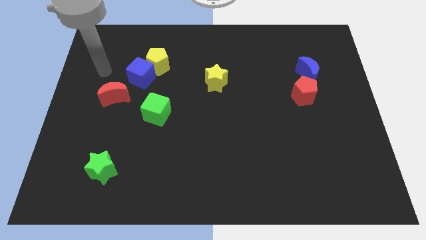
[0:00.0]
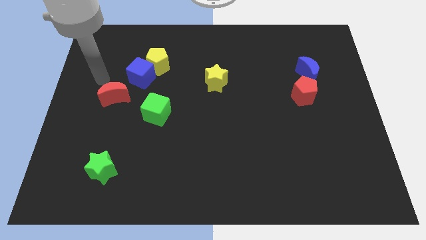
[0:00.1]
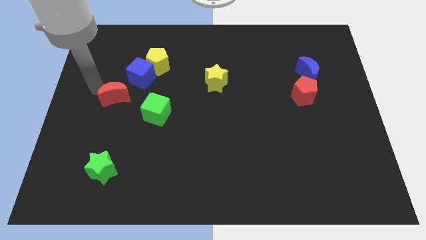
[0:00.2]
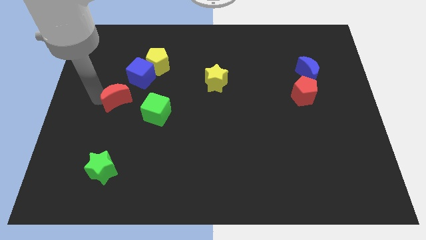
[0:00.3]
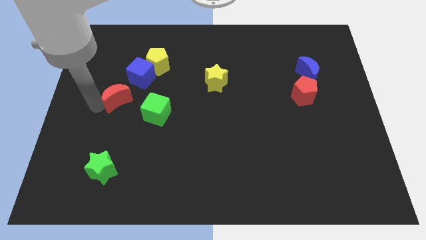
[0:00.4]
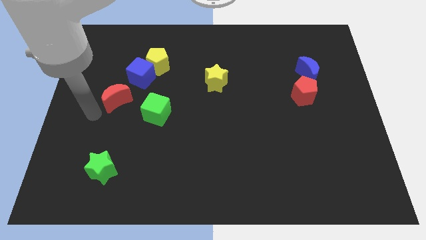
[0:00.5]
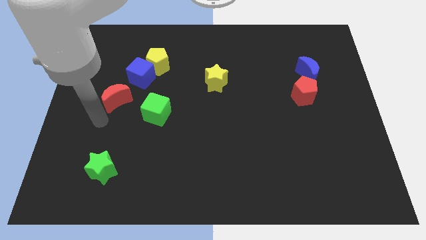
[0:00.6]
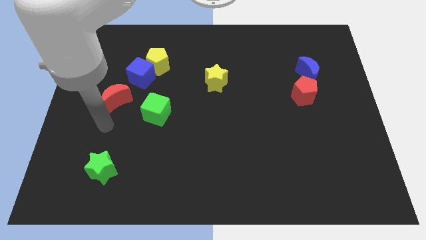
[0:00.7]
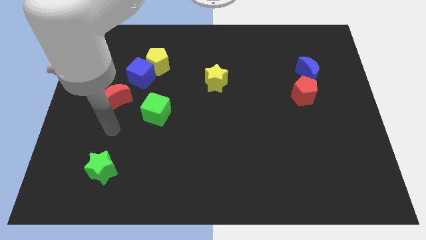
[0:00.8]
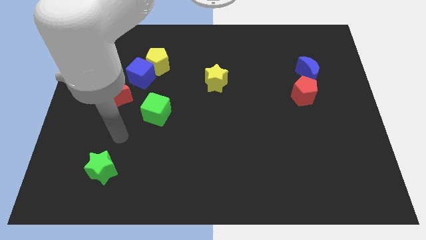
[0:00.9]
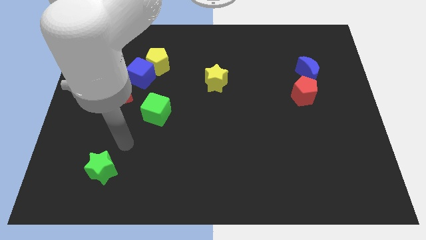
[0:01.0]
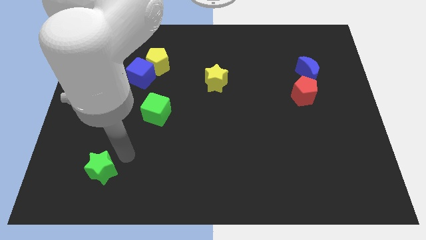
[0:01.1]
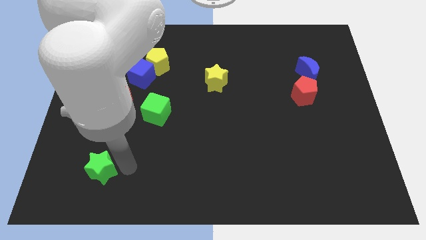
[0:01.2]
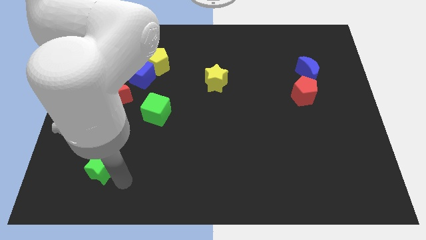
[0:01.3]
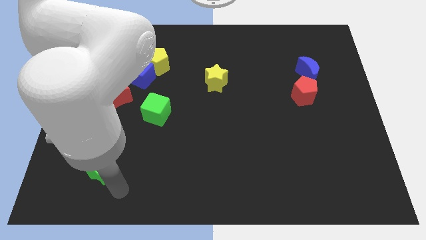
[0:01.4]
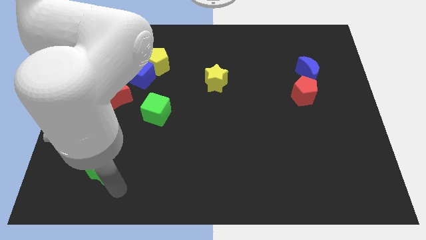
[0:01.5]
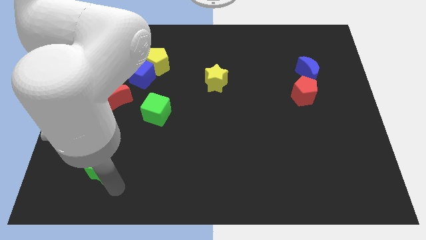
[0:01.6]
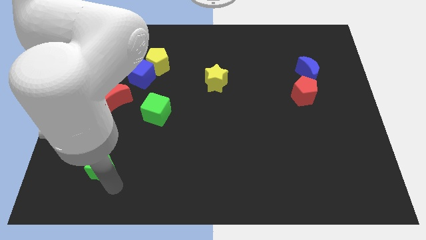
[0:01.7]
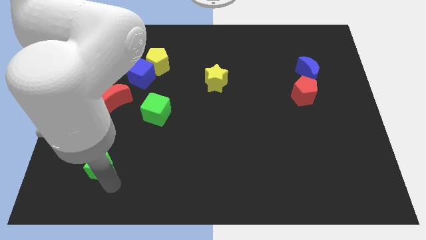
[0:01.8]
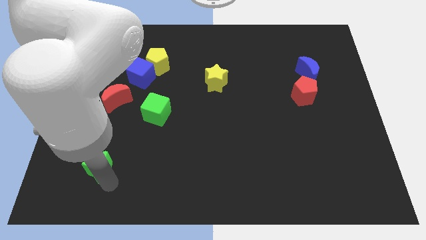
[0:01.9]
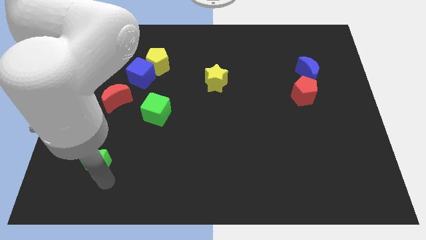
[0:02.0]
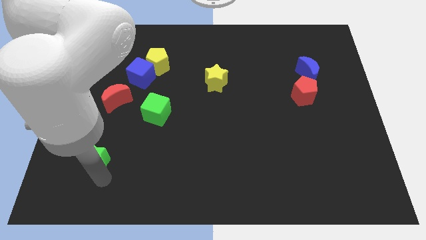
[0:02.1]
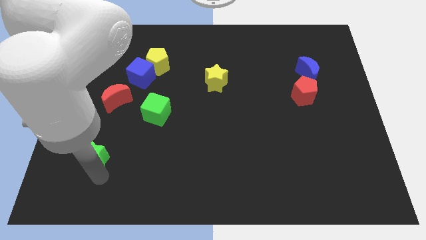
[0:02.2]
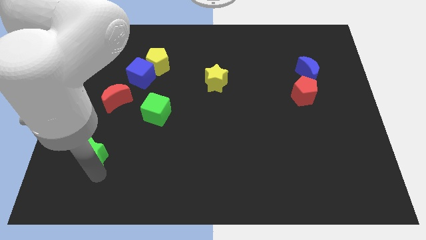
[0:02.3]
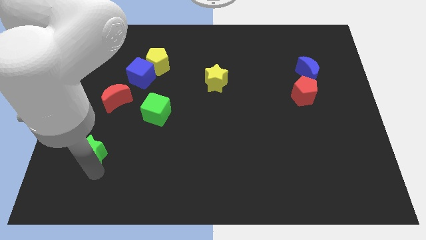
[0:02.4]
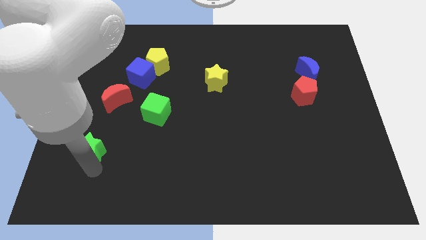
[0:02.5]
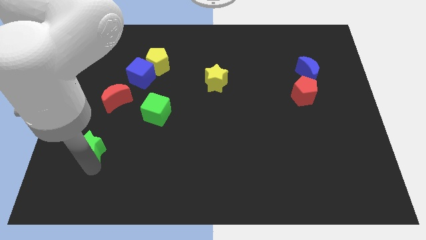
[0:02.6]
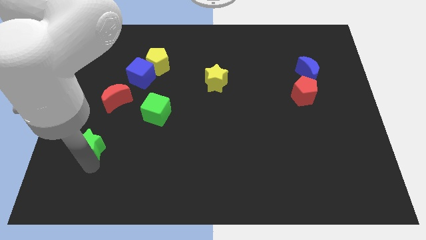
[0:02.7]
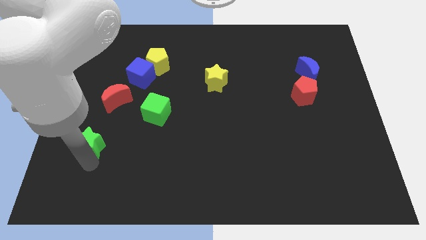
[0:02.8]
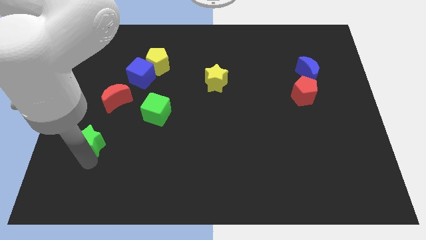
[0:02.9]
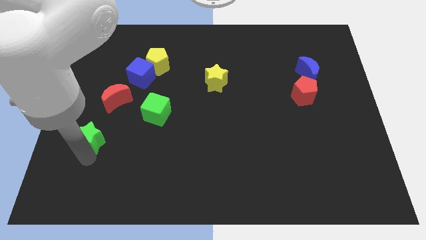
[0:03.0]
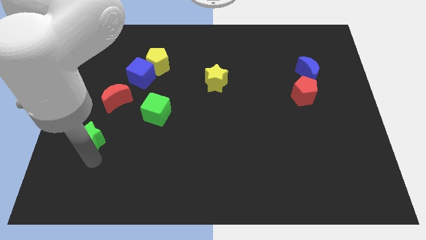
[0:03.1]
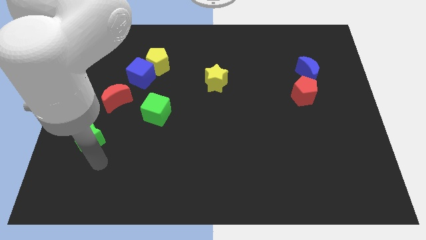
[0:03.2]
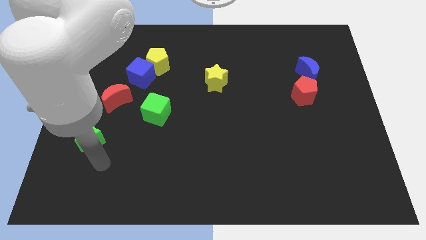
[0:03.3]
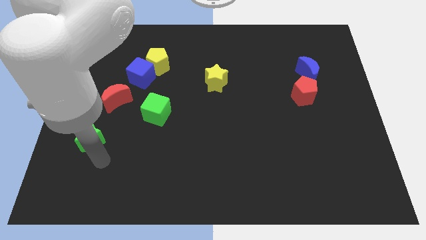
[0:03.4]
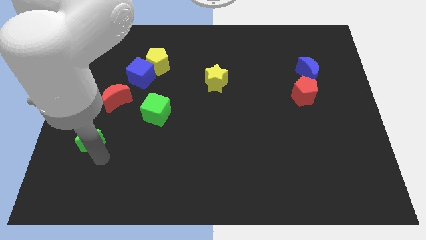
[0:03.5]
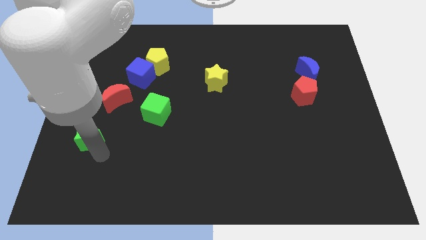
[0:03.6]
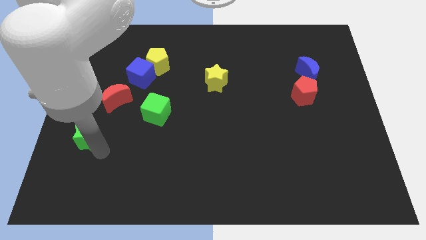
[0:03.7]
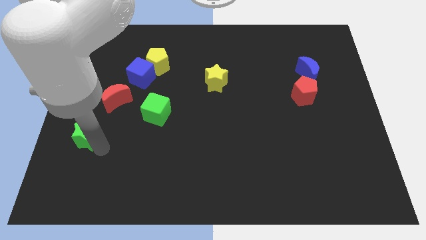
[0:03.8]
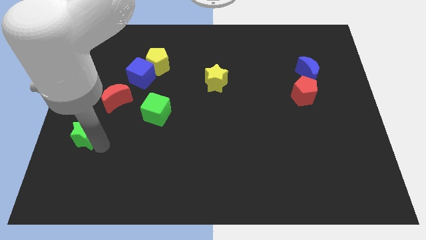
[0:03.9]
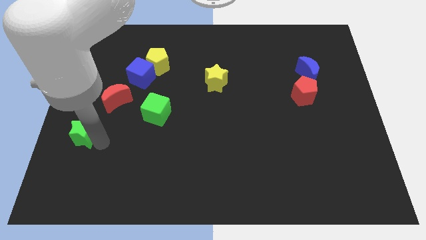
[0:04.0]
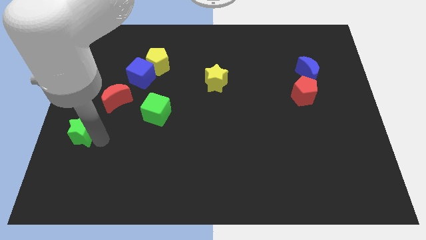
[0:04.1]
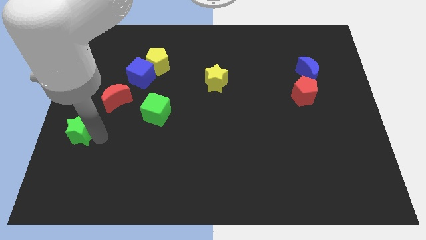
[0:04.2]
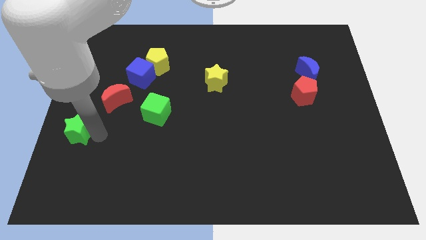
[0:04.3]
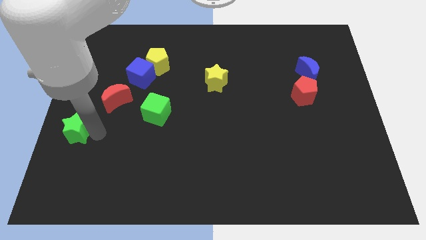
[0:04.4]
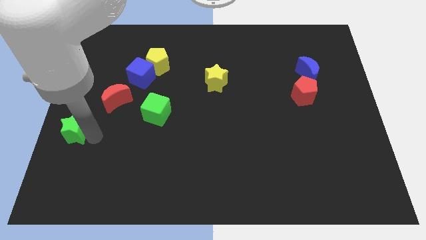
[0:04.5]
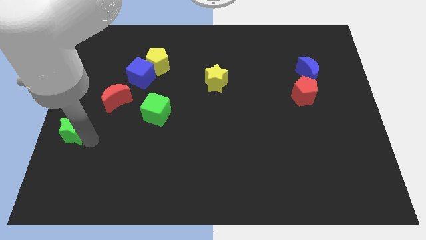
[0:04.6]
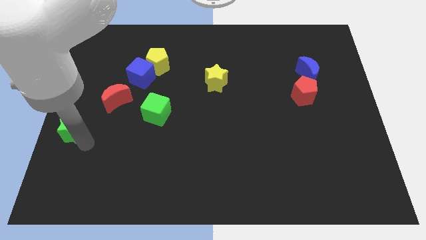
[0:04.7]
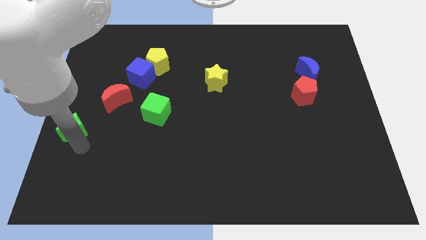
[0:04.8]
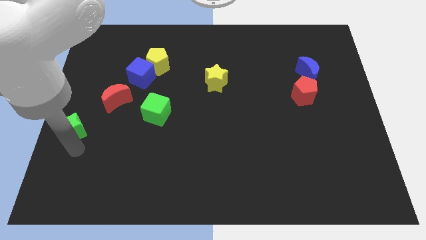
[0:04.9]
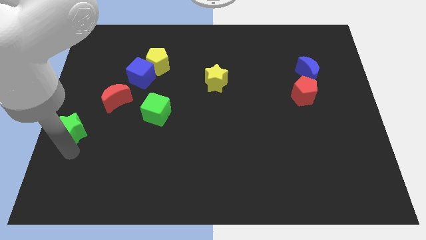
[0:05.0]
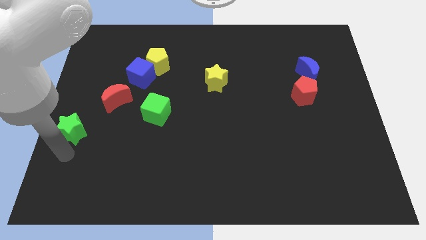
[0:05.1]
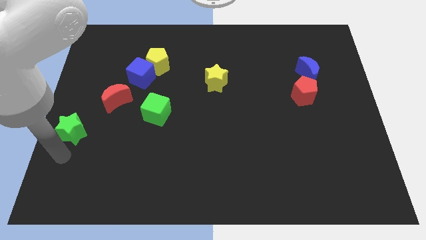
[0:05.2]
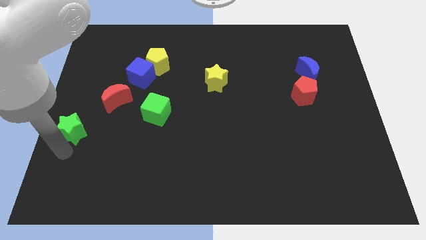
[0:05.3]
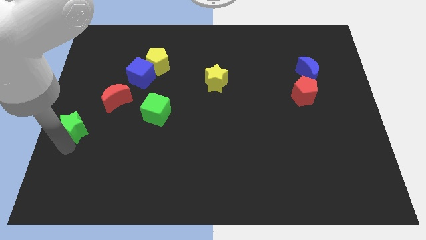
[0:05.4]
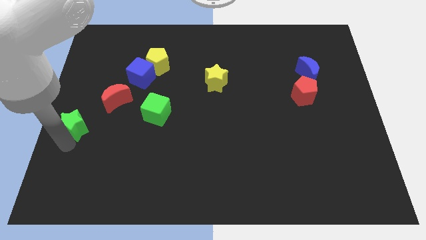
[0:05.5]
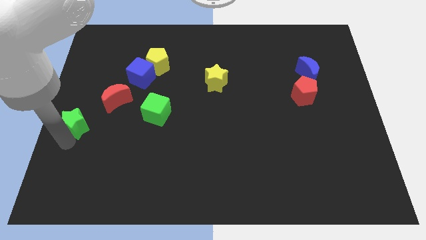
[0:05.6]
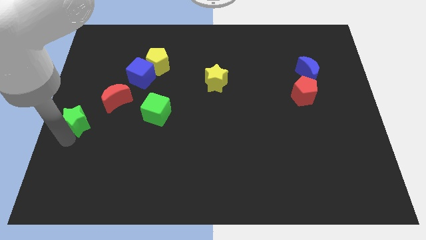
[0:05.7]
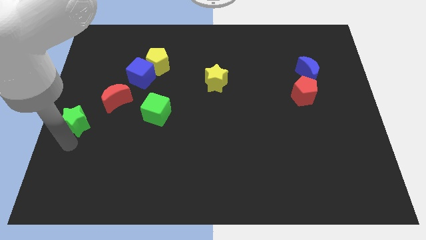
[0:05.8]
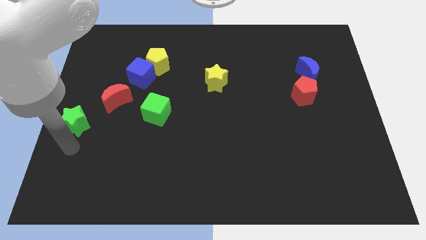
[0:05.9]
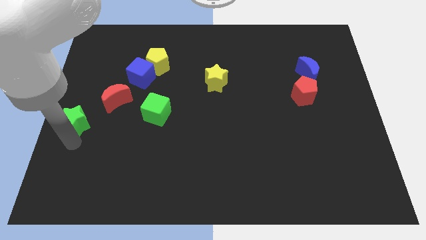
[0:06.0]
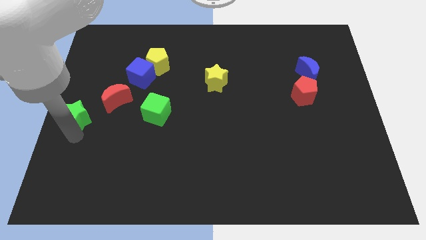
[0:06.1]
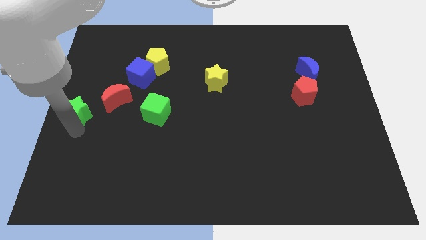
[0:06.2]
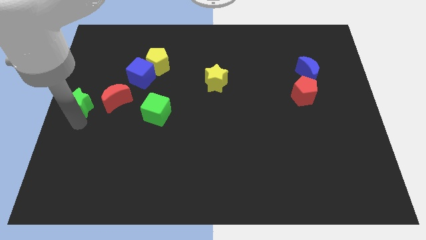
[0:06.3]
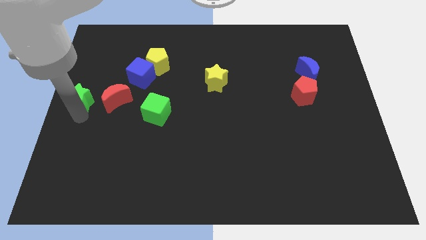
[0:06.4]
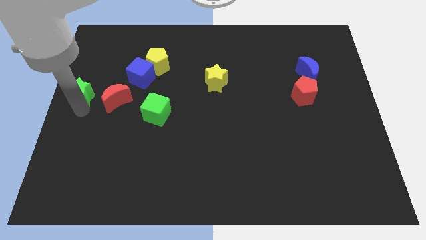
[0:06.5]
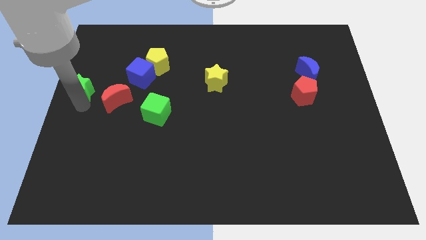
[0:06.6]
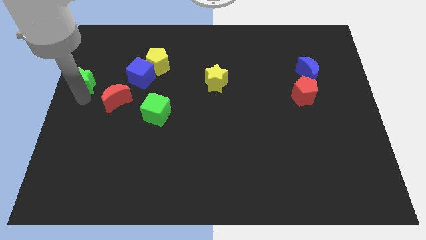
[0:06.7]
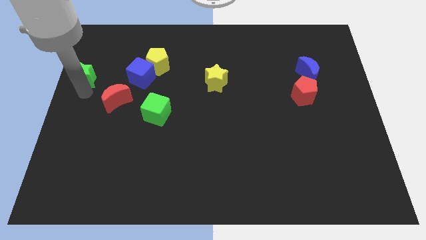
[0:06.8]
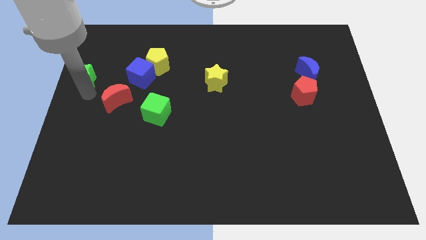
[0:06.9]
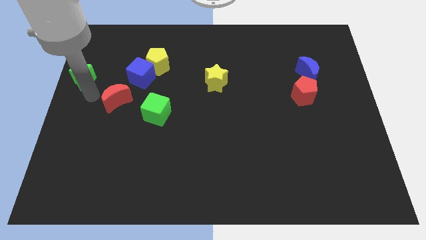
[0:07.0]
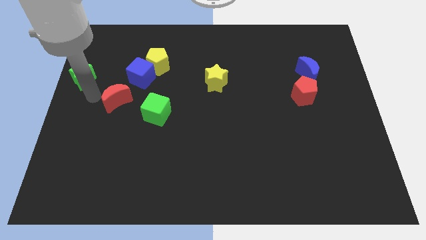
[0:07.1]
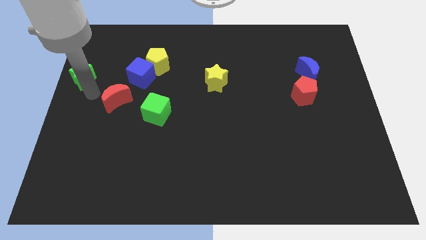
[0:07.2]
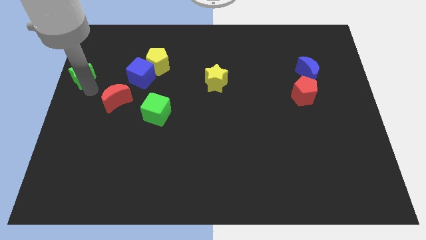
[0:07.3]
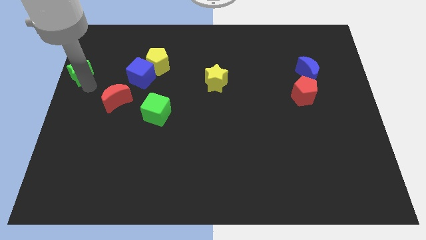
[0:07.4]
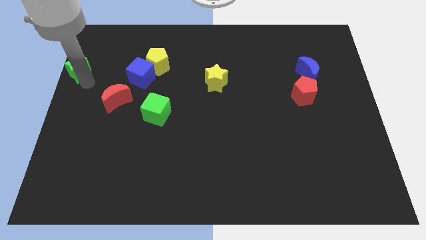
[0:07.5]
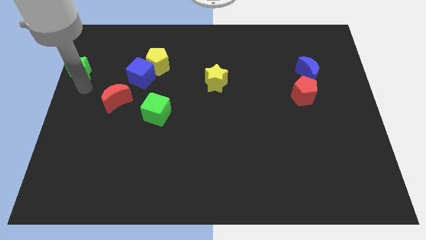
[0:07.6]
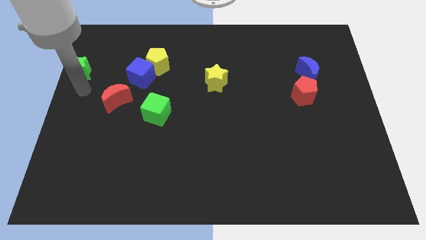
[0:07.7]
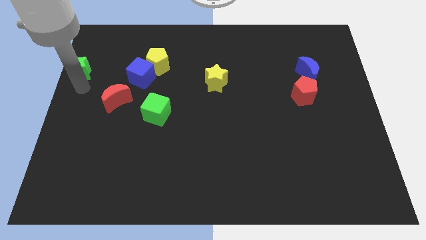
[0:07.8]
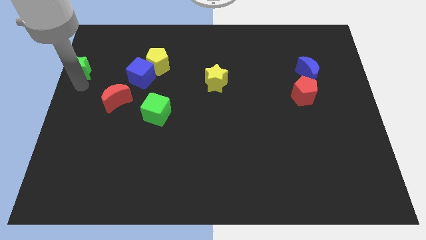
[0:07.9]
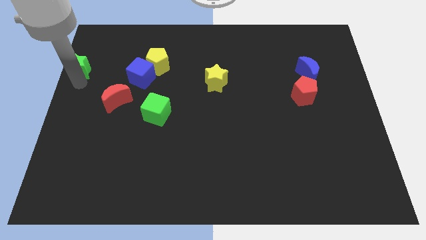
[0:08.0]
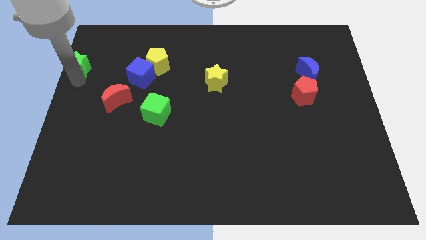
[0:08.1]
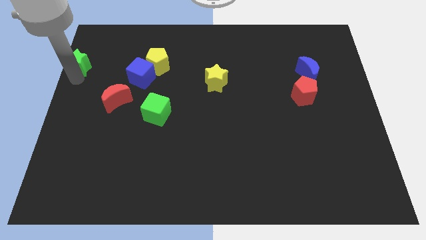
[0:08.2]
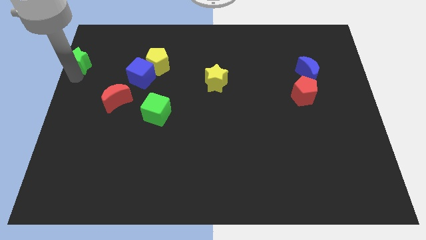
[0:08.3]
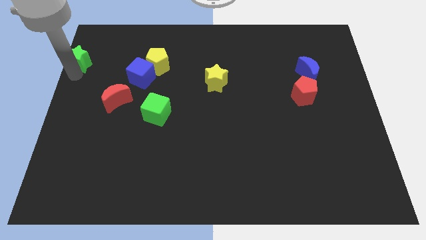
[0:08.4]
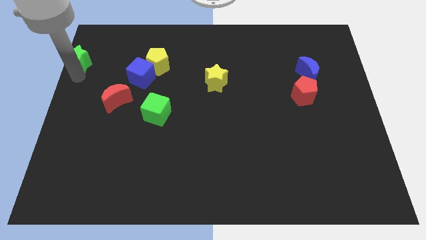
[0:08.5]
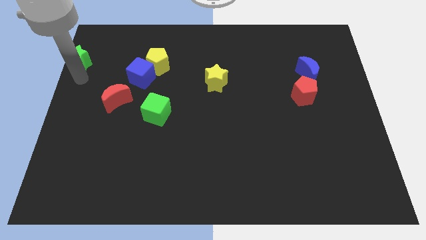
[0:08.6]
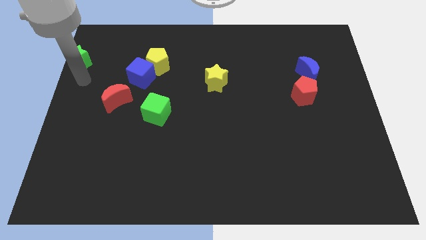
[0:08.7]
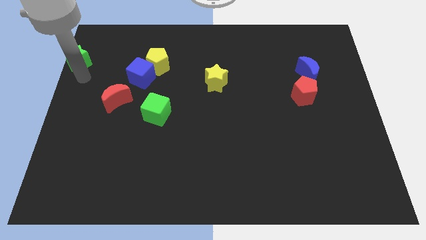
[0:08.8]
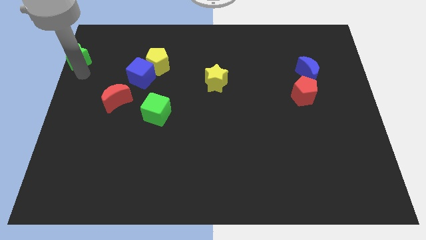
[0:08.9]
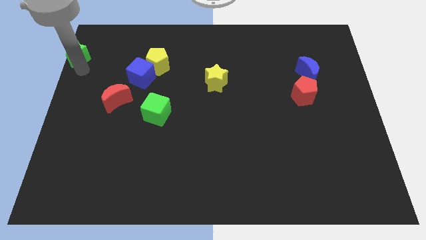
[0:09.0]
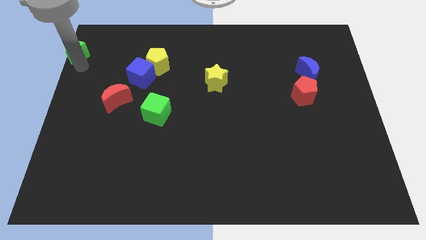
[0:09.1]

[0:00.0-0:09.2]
move the green star to the upper left corner
